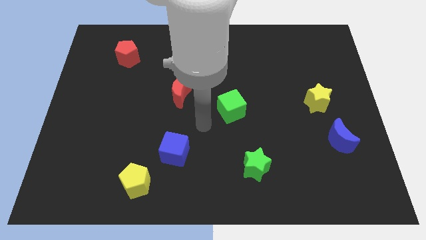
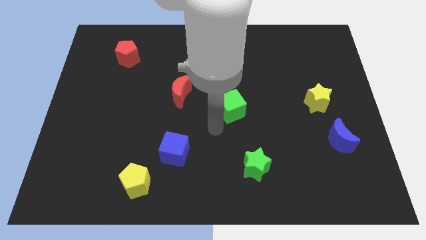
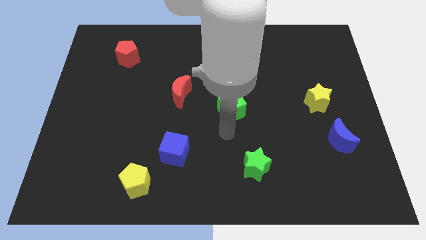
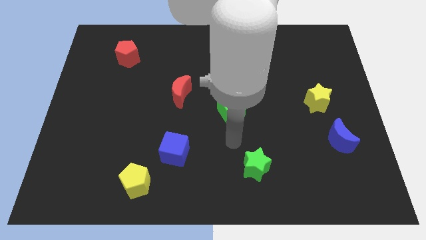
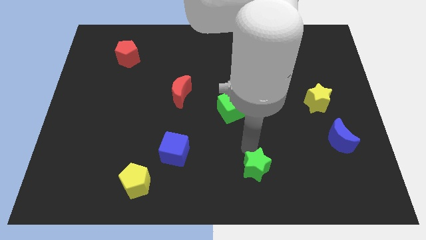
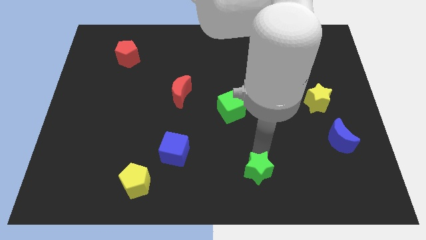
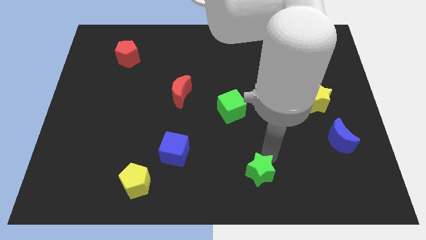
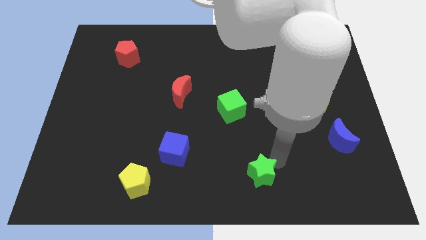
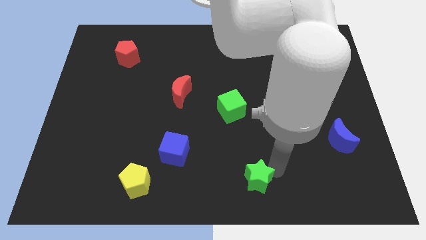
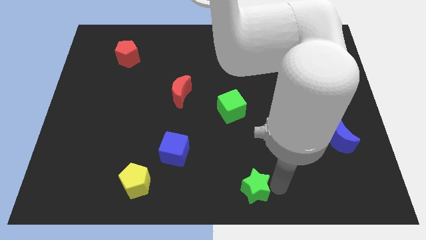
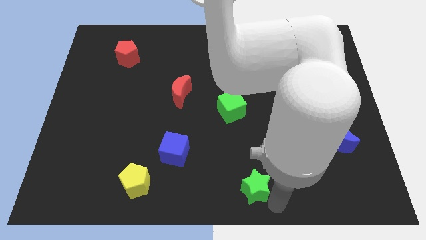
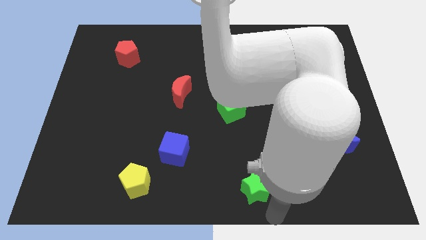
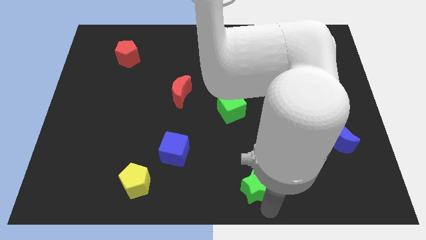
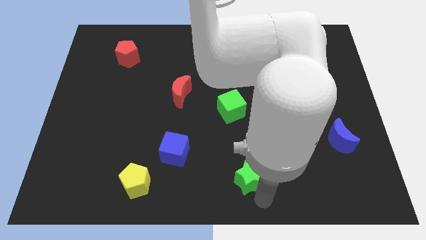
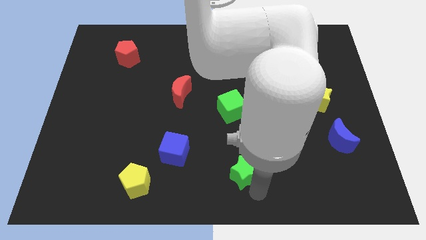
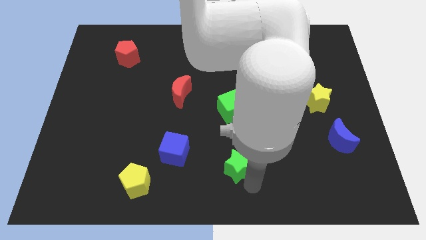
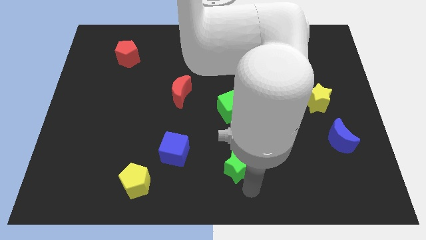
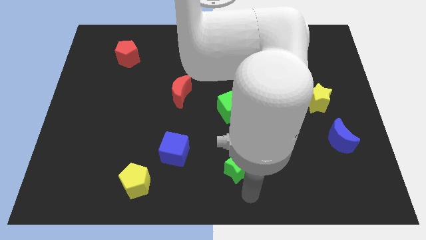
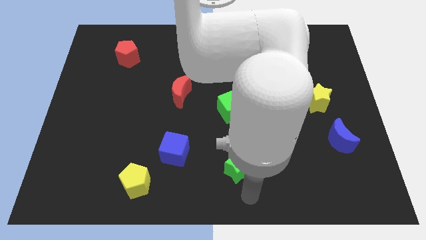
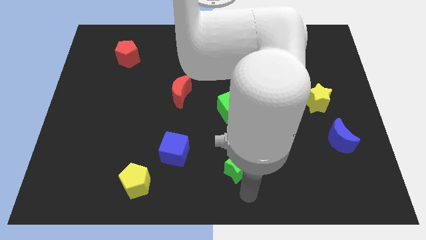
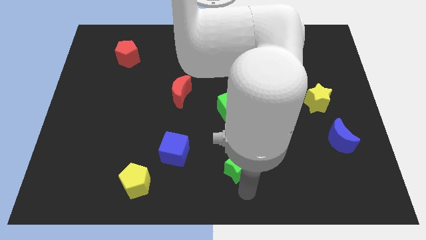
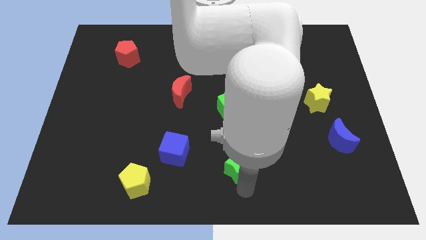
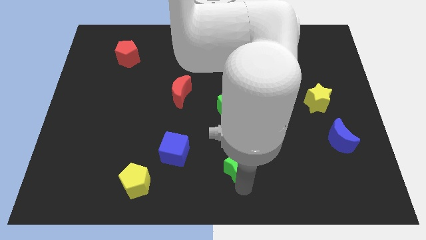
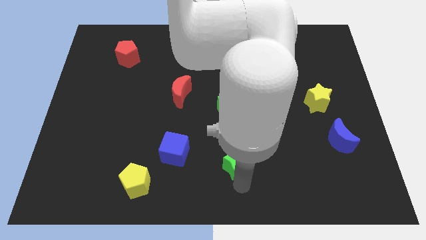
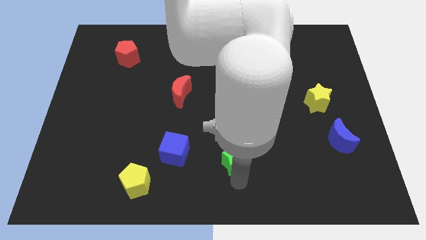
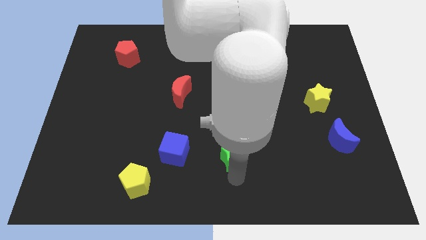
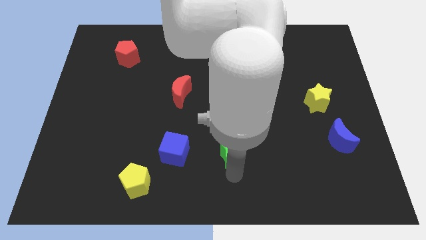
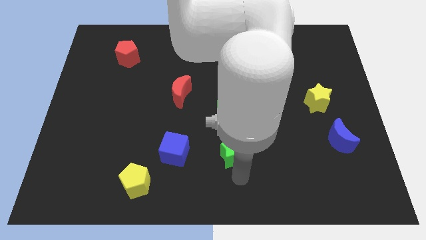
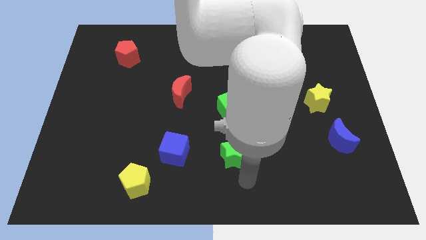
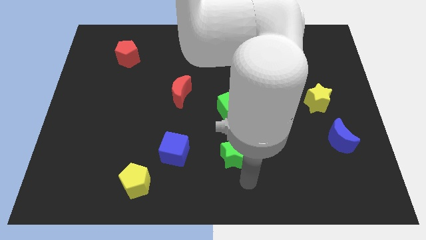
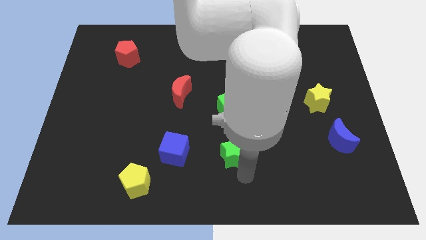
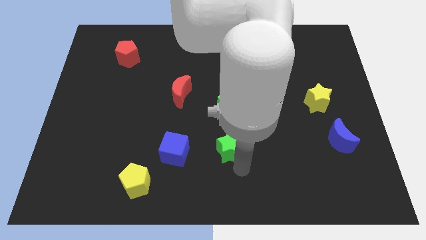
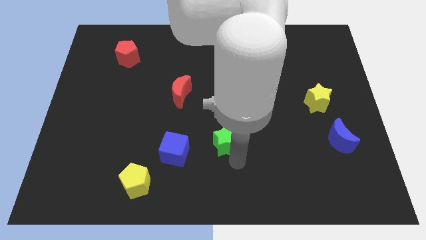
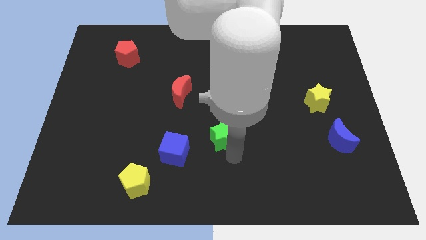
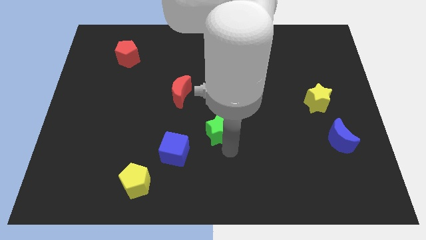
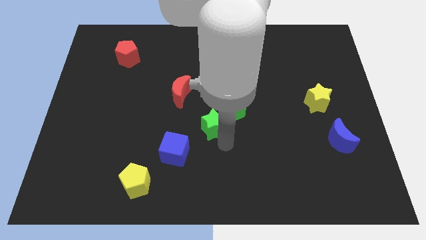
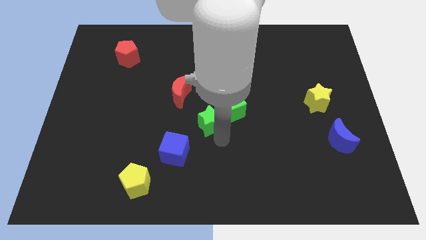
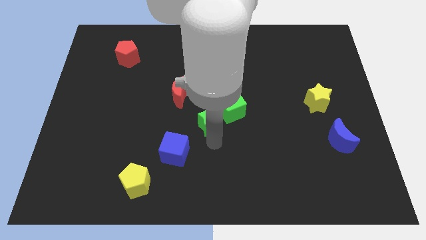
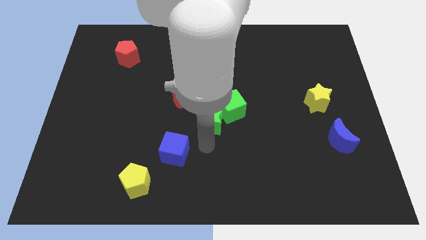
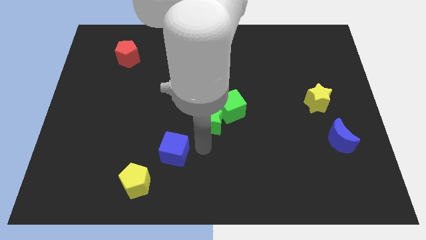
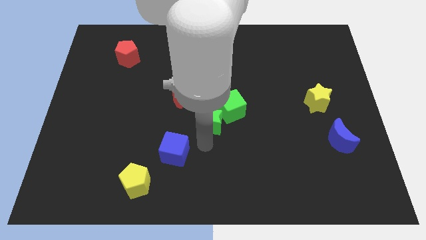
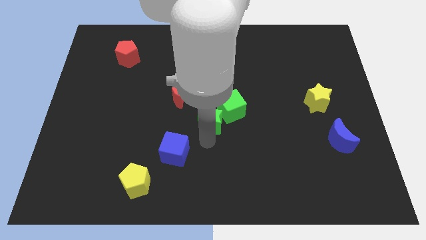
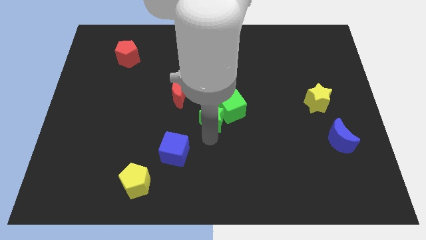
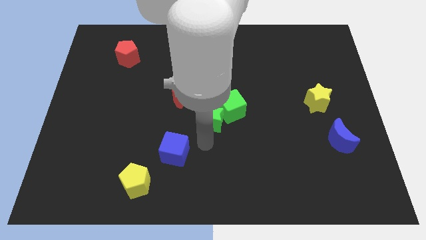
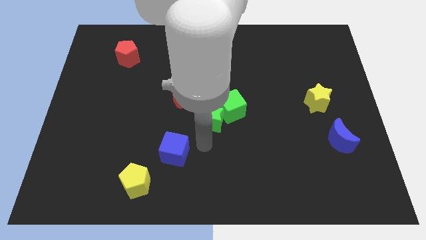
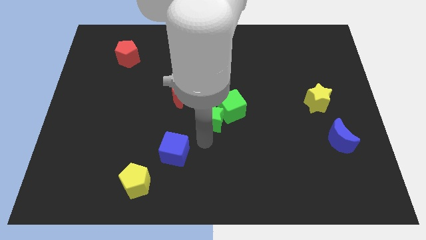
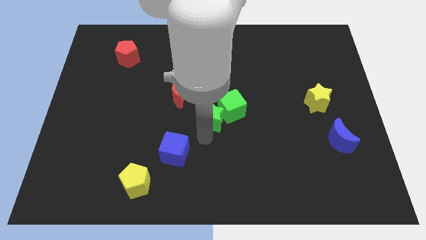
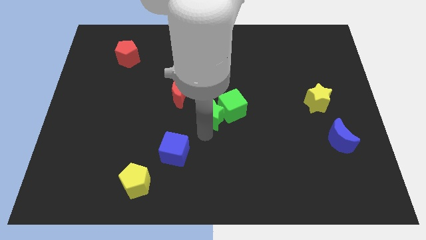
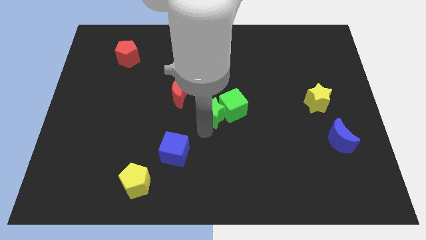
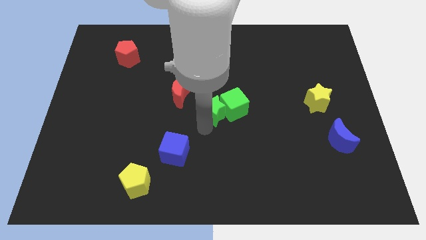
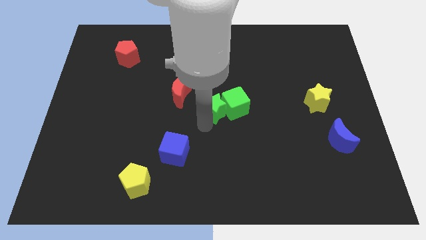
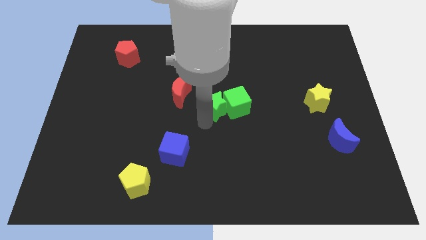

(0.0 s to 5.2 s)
push the green star just right of the red moon

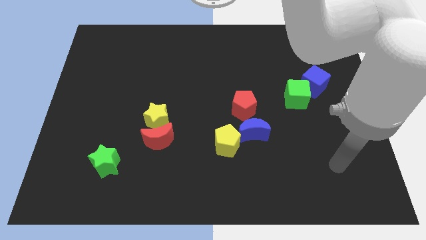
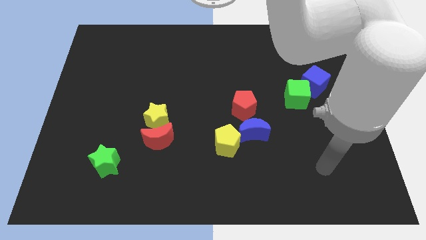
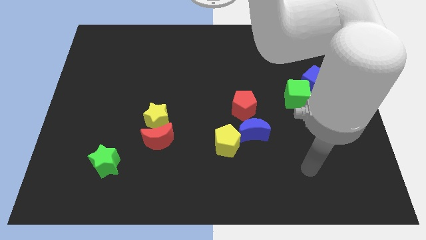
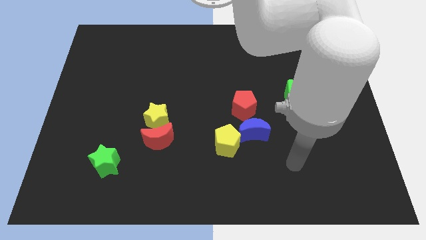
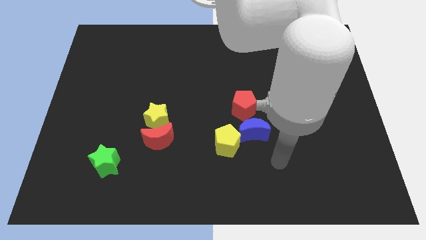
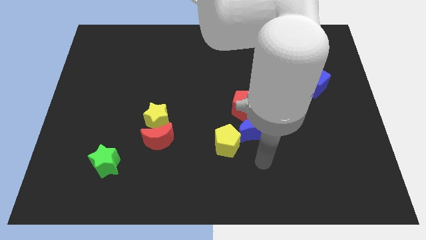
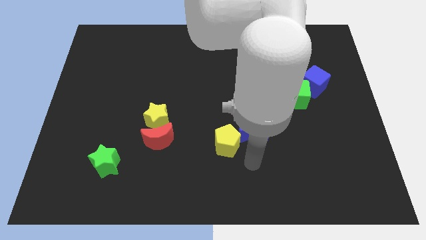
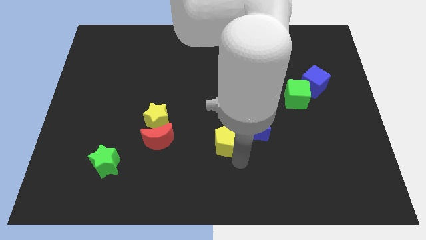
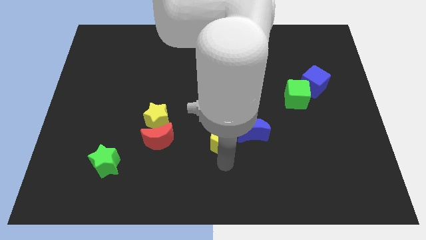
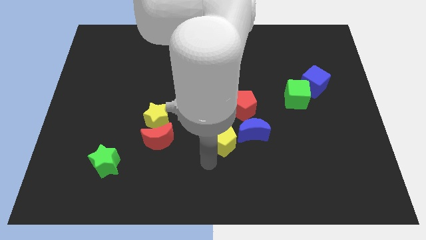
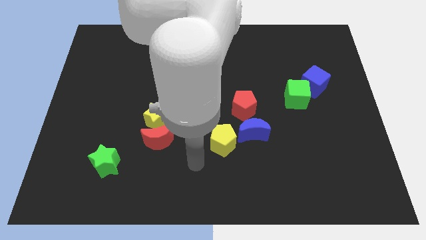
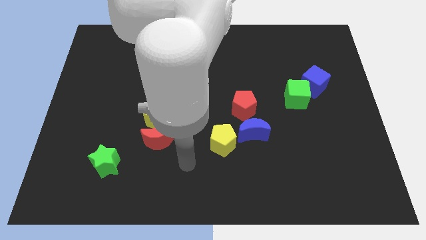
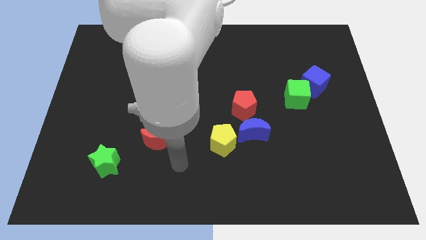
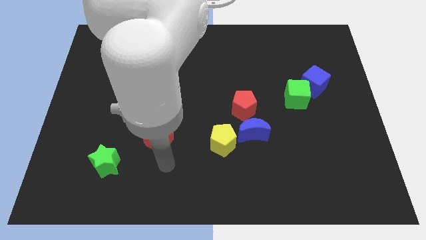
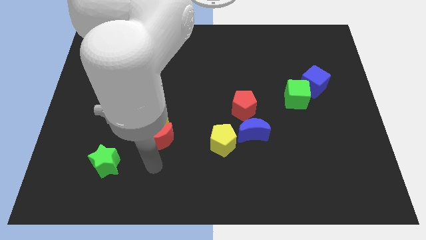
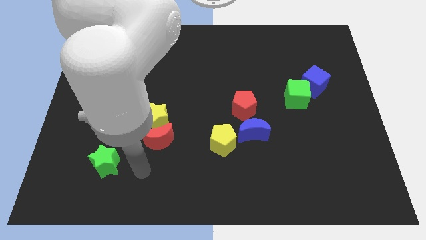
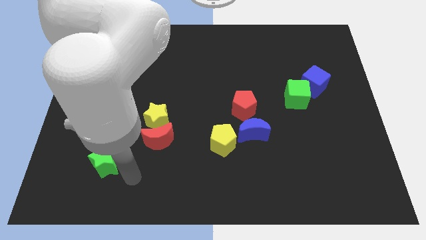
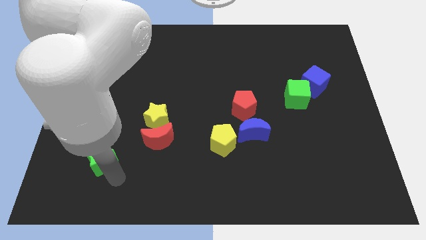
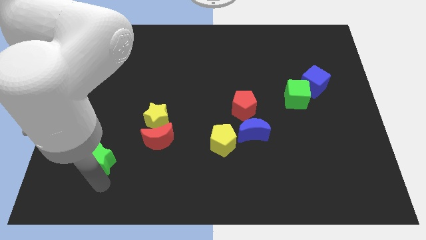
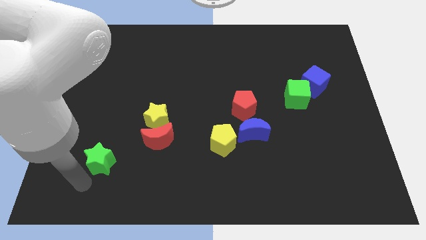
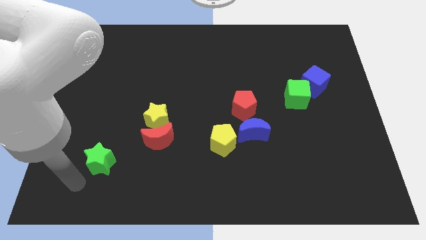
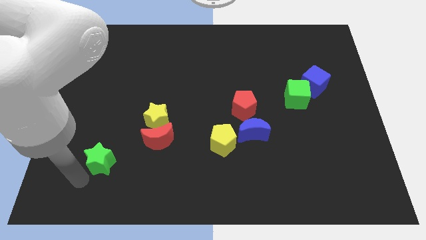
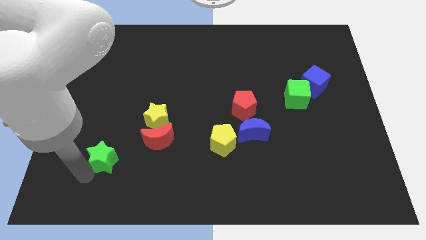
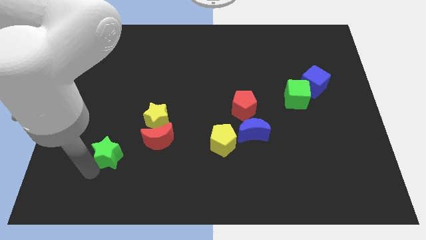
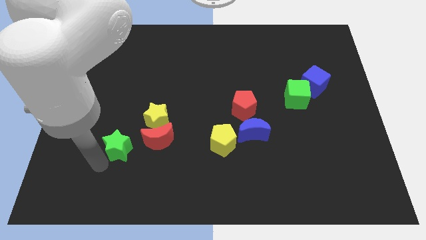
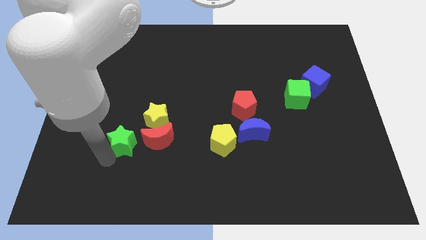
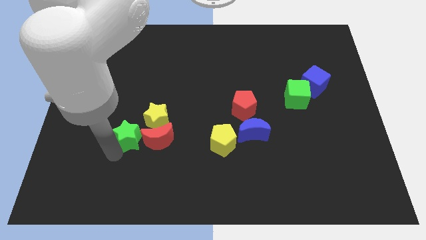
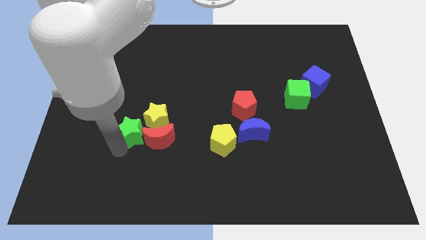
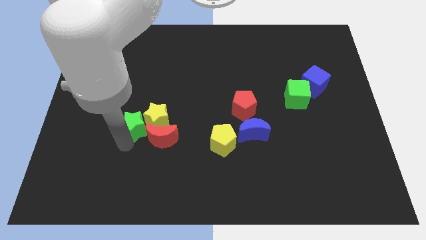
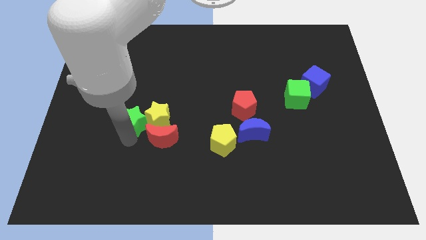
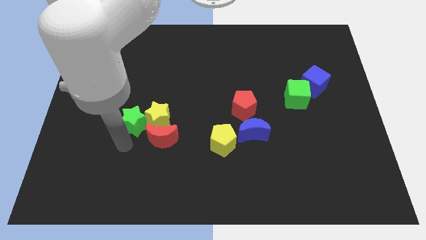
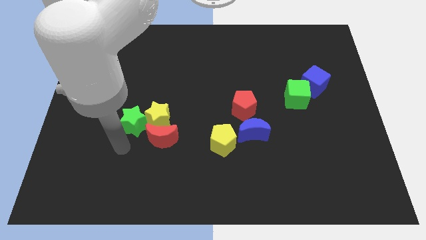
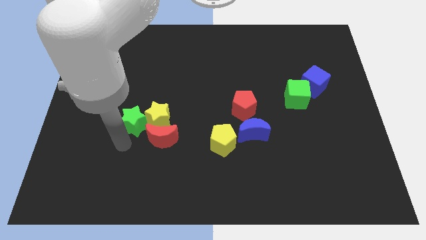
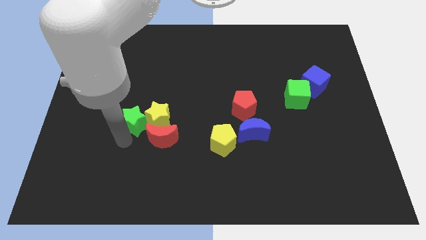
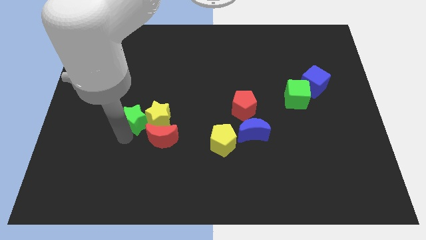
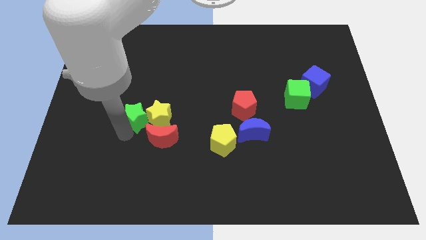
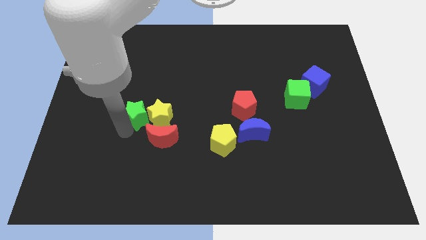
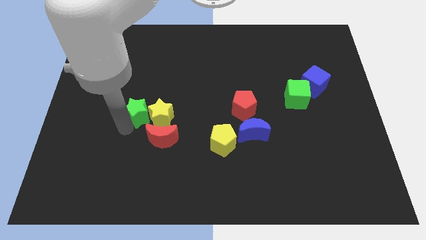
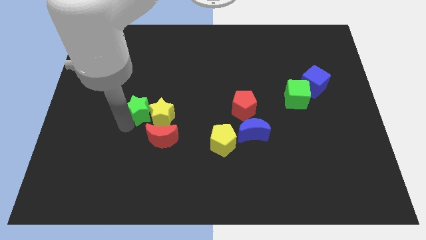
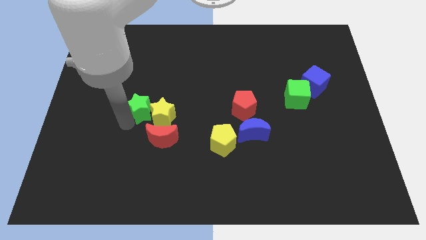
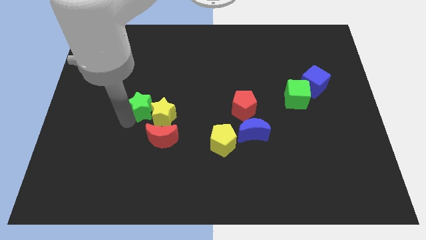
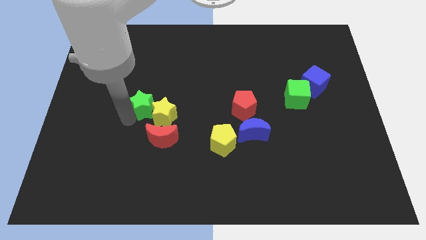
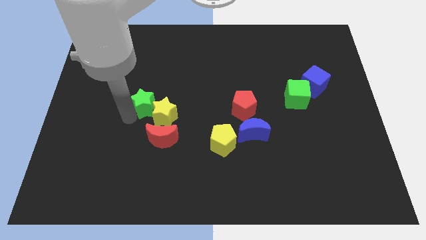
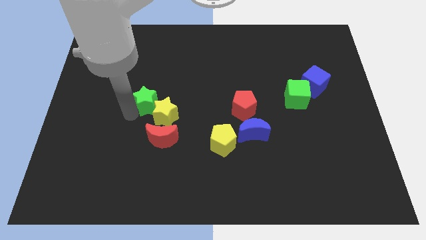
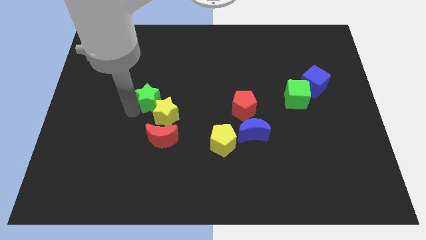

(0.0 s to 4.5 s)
slide the green star to the top side of the yellow star
